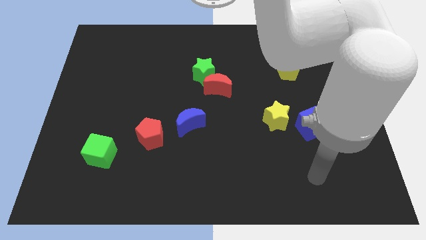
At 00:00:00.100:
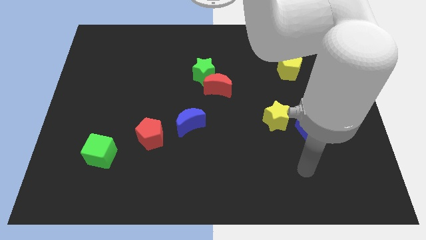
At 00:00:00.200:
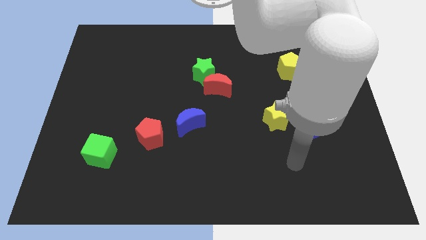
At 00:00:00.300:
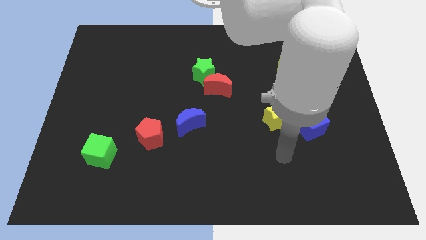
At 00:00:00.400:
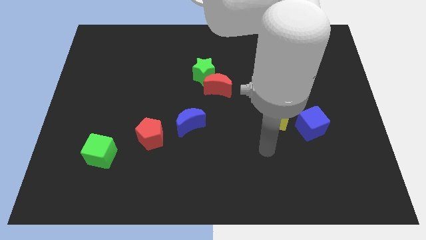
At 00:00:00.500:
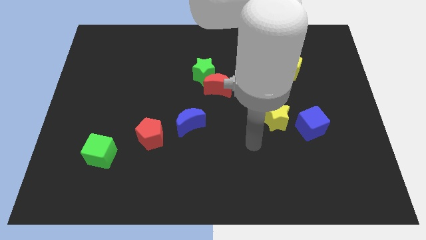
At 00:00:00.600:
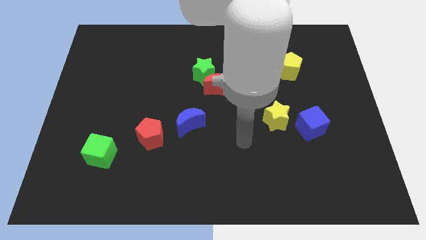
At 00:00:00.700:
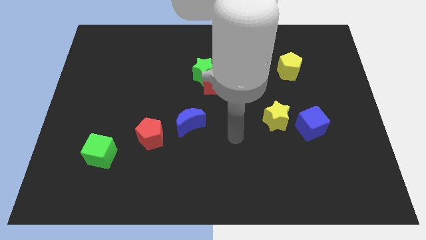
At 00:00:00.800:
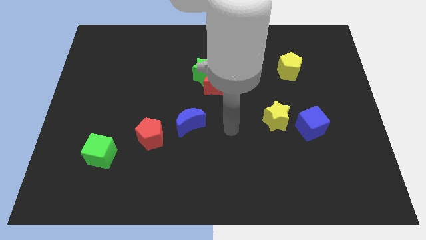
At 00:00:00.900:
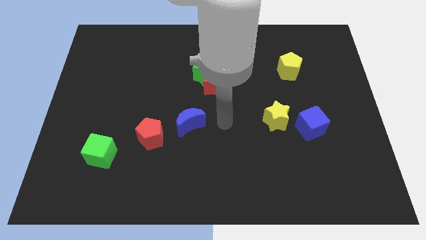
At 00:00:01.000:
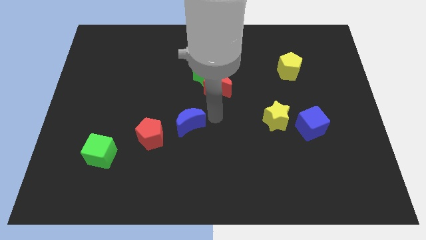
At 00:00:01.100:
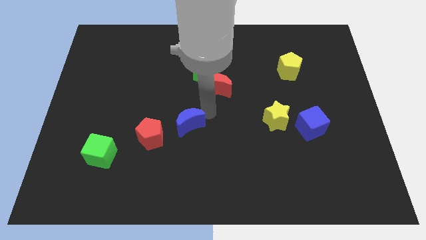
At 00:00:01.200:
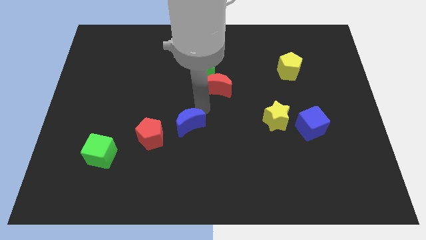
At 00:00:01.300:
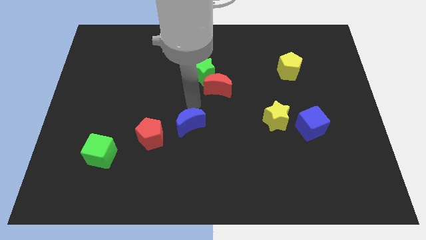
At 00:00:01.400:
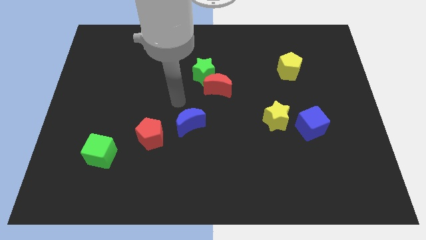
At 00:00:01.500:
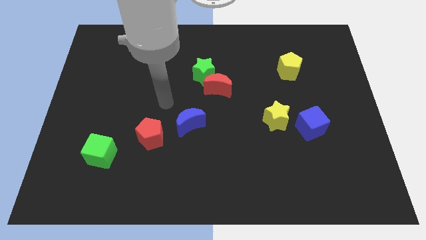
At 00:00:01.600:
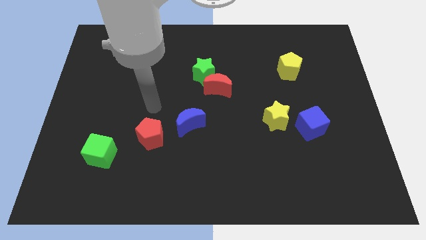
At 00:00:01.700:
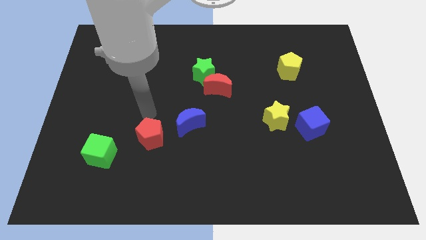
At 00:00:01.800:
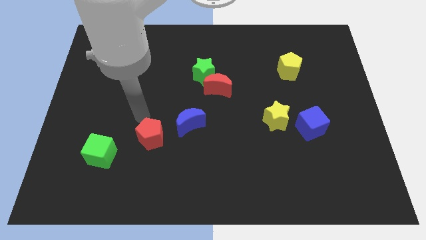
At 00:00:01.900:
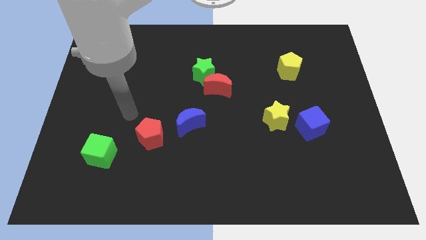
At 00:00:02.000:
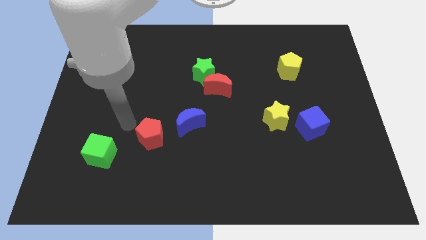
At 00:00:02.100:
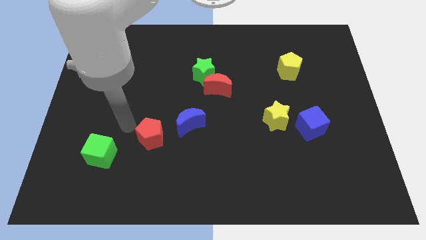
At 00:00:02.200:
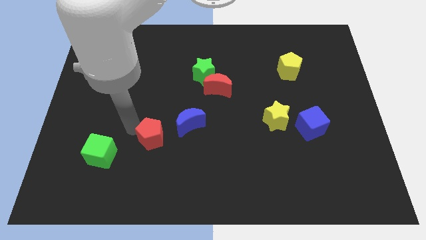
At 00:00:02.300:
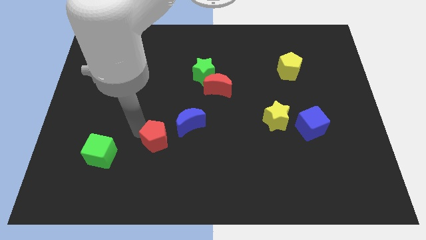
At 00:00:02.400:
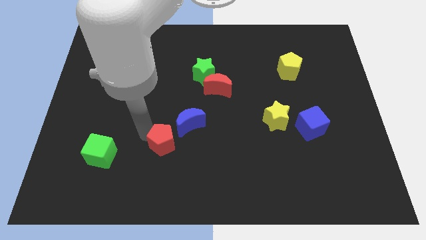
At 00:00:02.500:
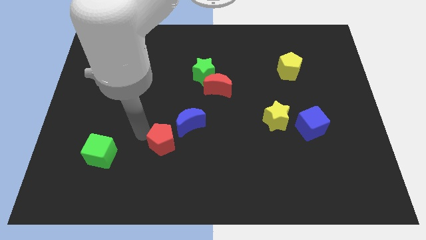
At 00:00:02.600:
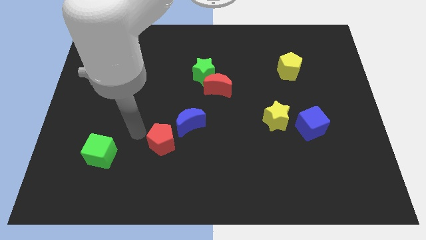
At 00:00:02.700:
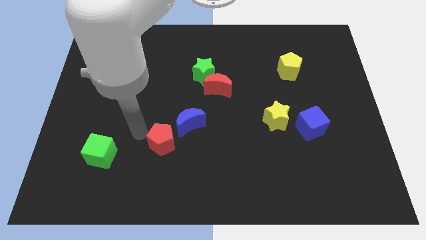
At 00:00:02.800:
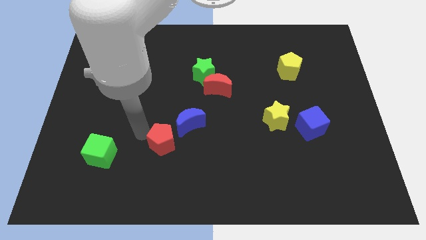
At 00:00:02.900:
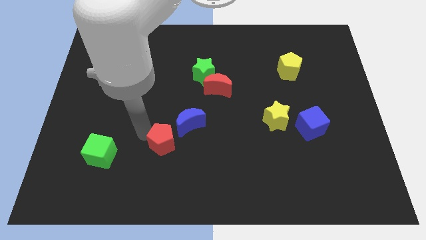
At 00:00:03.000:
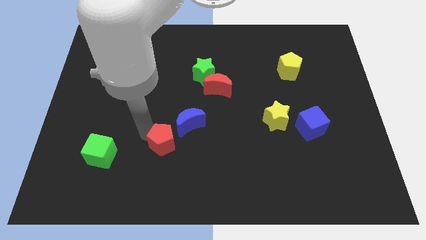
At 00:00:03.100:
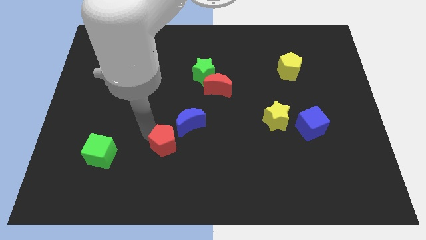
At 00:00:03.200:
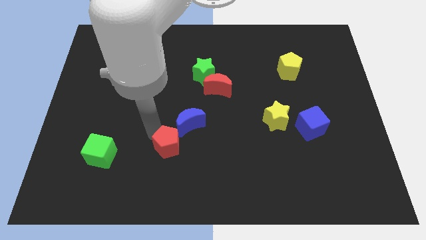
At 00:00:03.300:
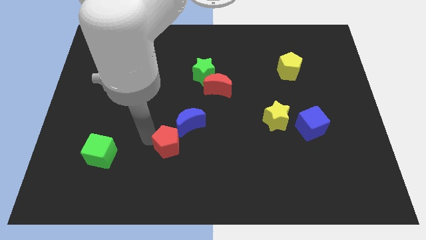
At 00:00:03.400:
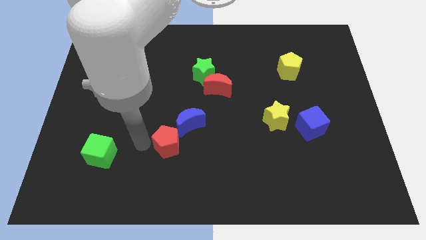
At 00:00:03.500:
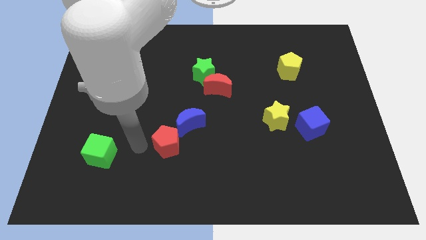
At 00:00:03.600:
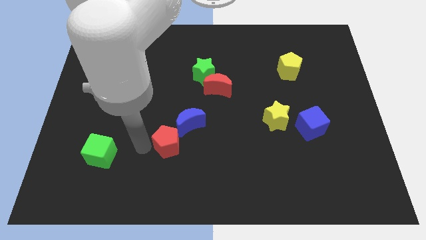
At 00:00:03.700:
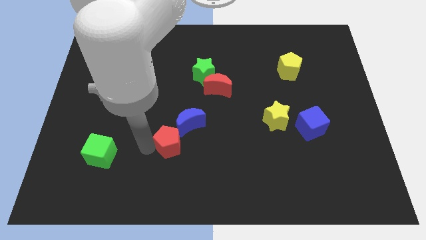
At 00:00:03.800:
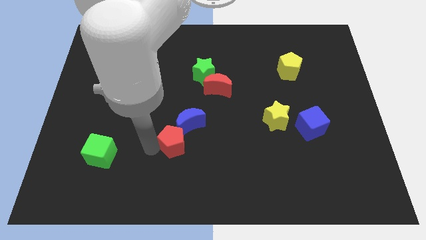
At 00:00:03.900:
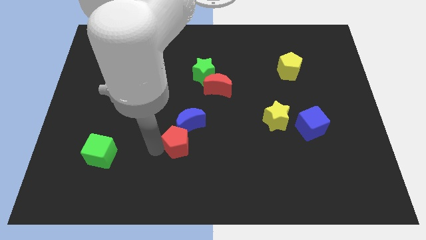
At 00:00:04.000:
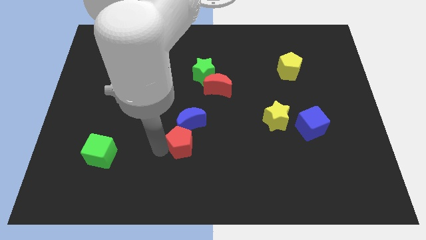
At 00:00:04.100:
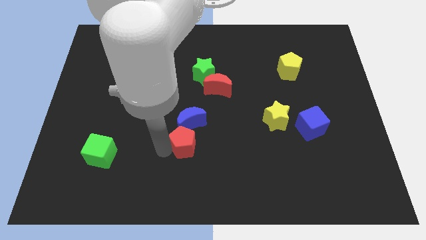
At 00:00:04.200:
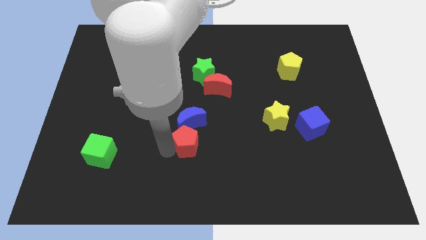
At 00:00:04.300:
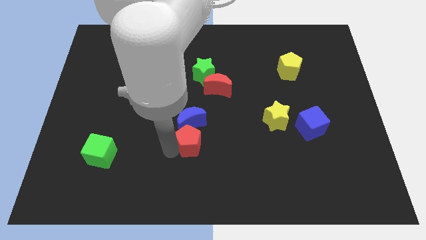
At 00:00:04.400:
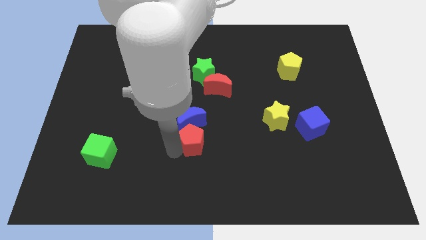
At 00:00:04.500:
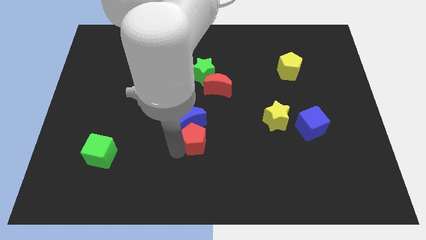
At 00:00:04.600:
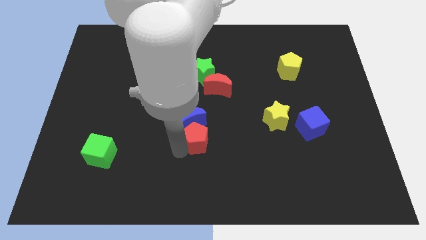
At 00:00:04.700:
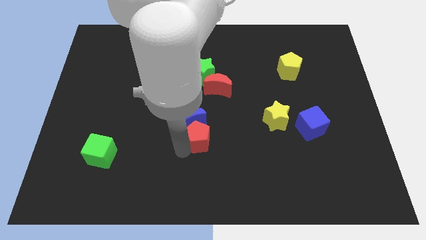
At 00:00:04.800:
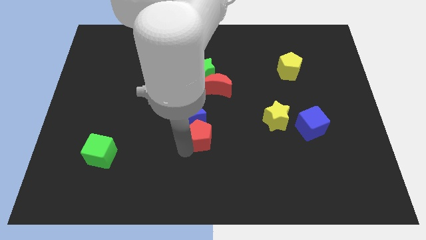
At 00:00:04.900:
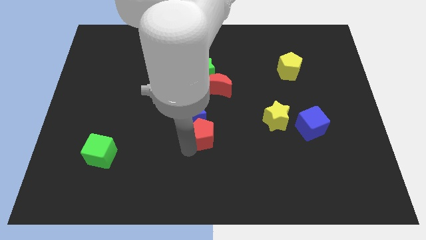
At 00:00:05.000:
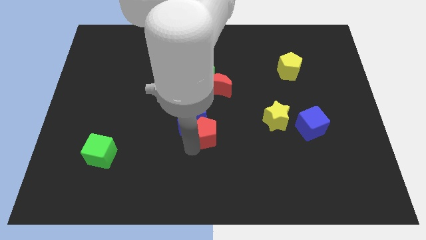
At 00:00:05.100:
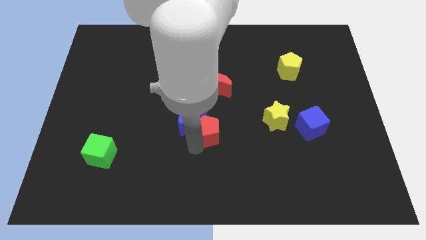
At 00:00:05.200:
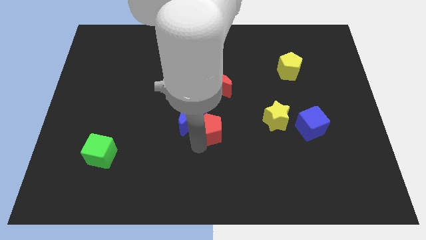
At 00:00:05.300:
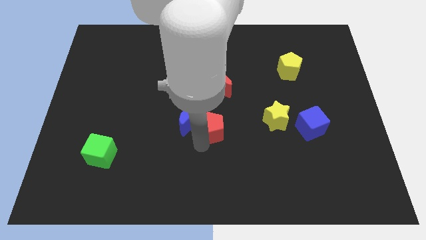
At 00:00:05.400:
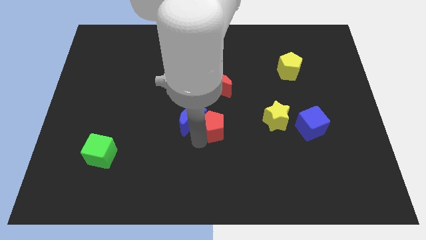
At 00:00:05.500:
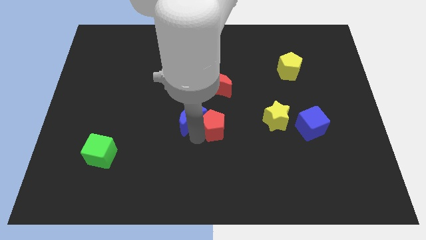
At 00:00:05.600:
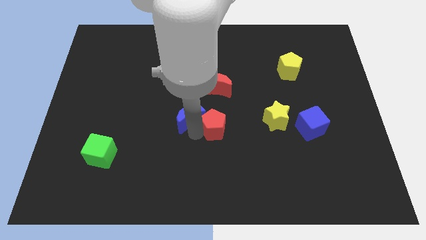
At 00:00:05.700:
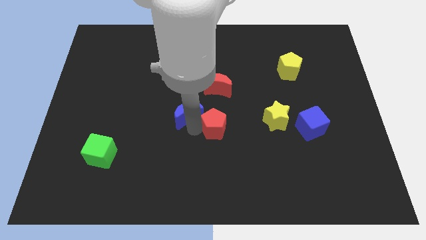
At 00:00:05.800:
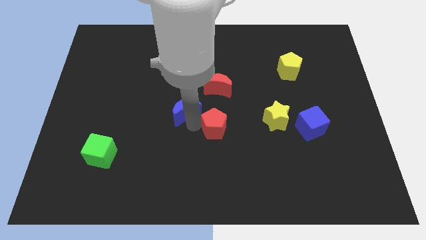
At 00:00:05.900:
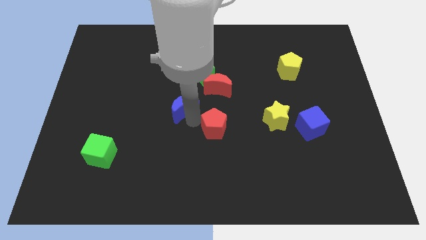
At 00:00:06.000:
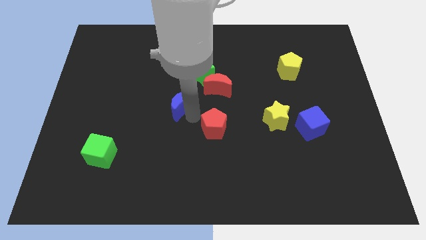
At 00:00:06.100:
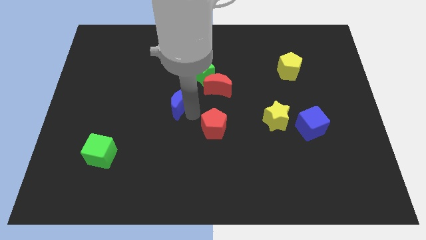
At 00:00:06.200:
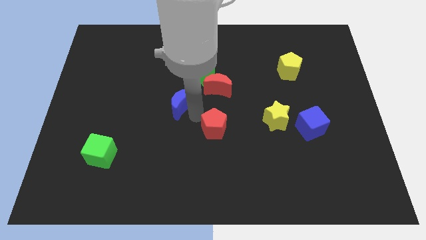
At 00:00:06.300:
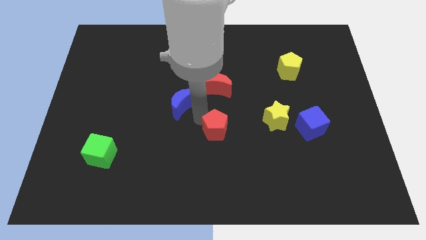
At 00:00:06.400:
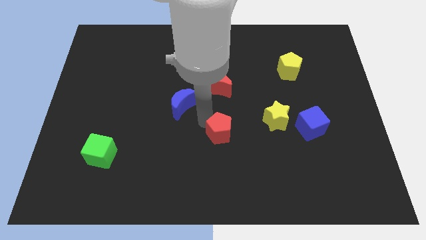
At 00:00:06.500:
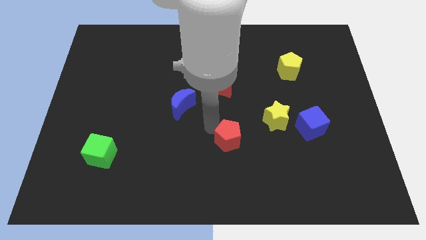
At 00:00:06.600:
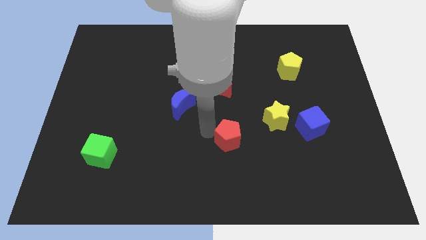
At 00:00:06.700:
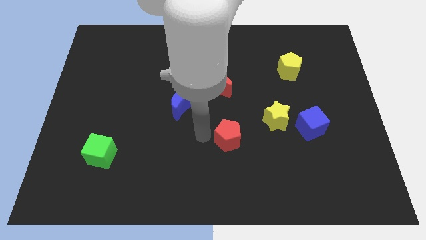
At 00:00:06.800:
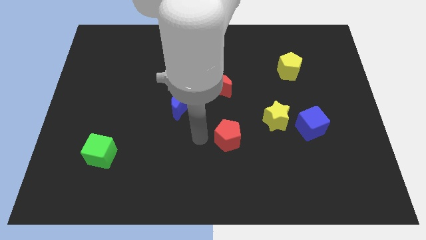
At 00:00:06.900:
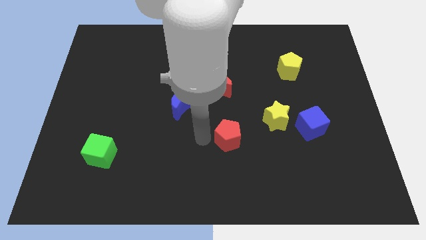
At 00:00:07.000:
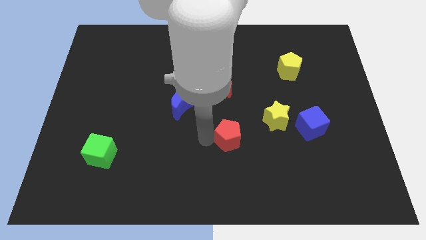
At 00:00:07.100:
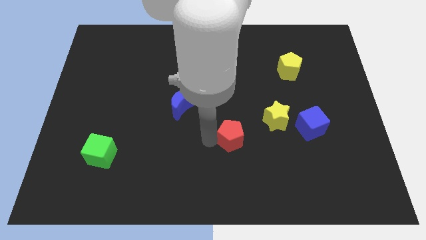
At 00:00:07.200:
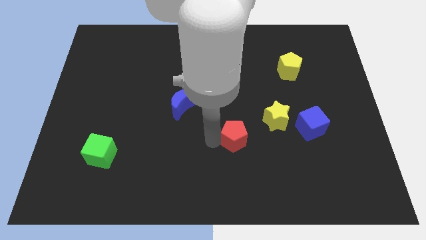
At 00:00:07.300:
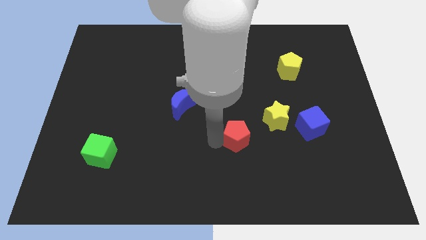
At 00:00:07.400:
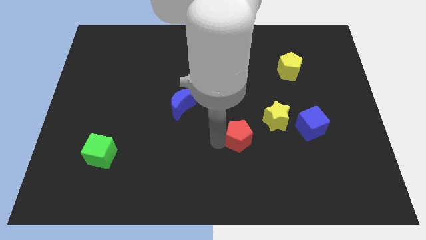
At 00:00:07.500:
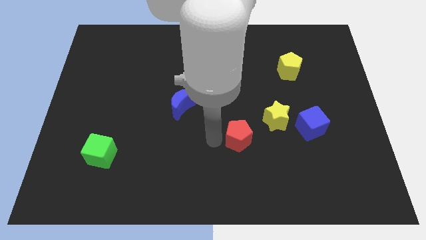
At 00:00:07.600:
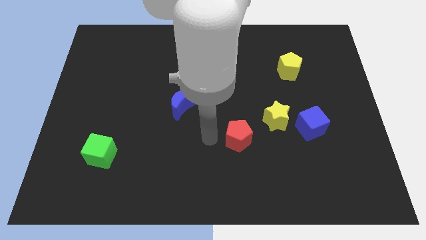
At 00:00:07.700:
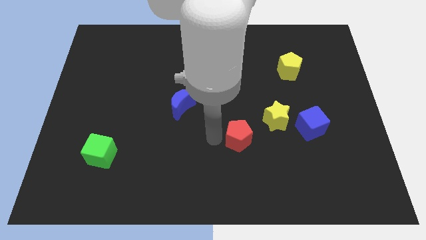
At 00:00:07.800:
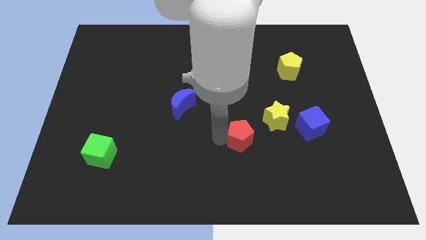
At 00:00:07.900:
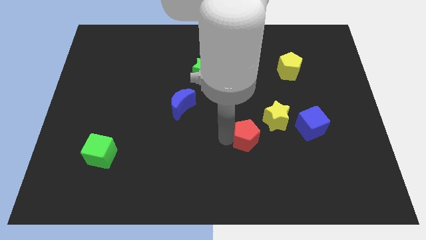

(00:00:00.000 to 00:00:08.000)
slide the red pentagon to the right
